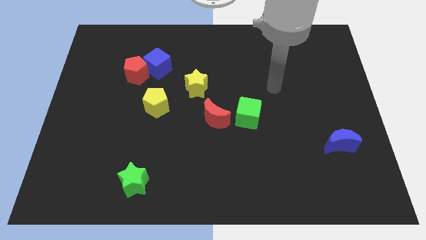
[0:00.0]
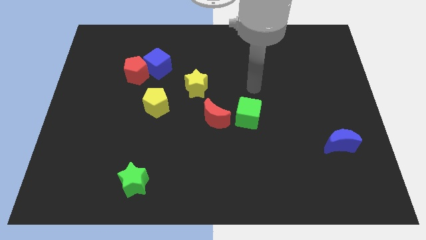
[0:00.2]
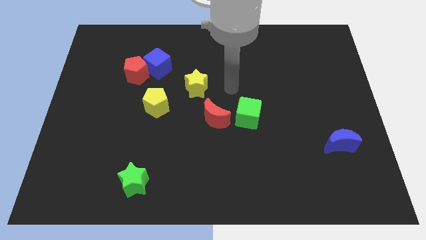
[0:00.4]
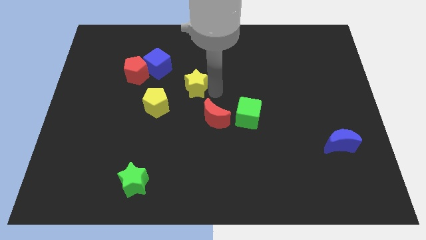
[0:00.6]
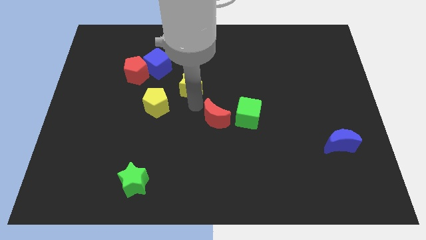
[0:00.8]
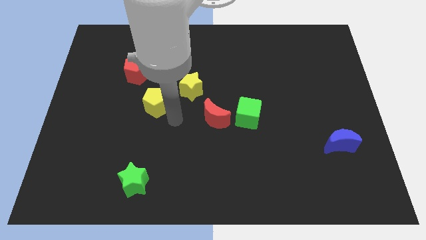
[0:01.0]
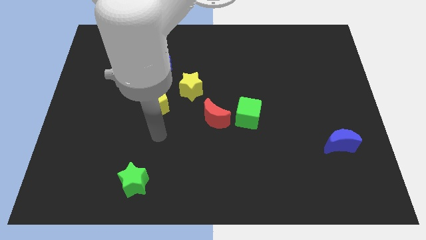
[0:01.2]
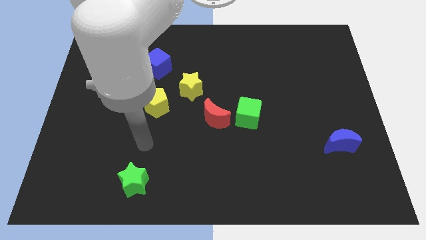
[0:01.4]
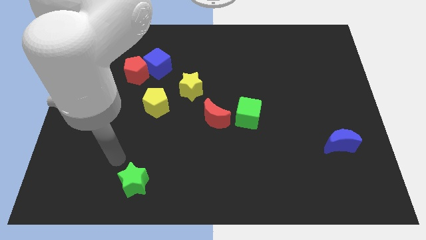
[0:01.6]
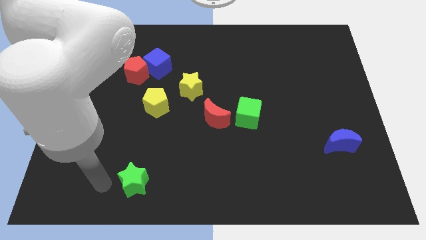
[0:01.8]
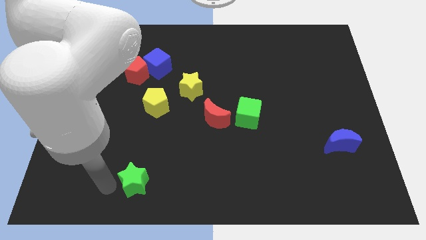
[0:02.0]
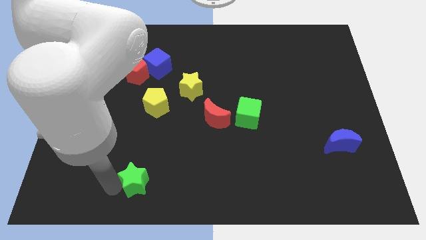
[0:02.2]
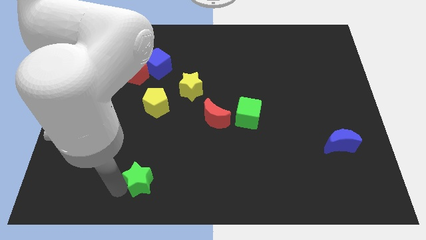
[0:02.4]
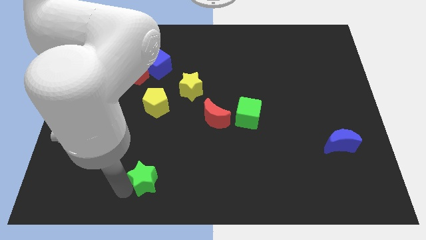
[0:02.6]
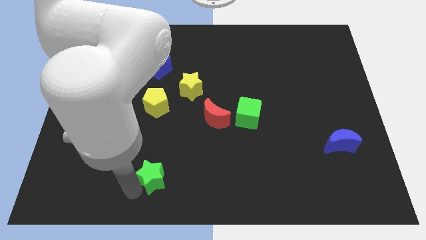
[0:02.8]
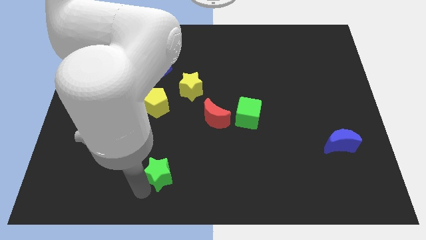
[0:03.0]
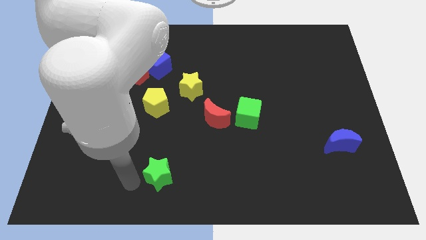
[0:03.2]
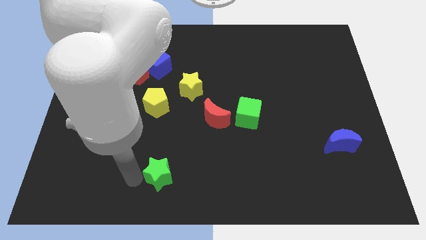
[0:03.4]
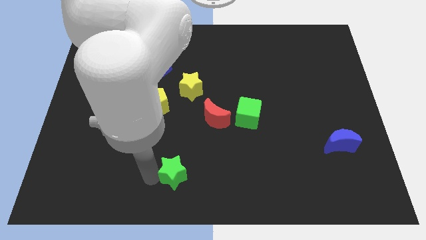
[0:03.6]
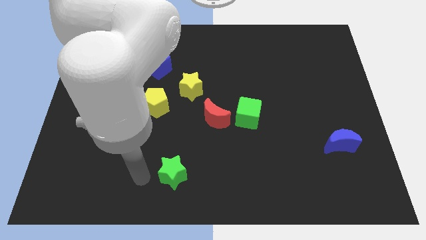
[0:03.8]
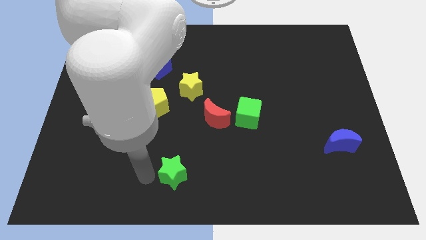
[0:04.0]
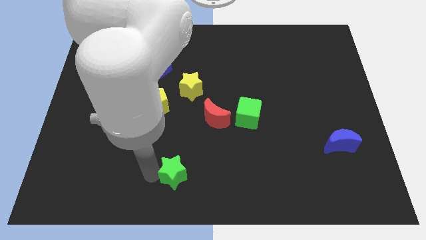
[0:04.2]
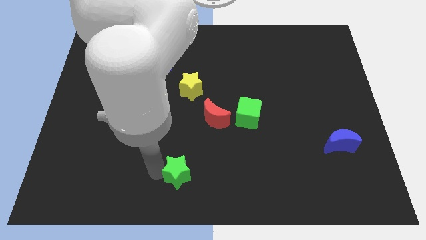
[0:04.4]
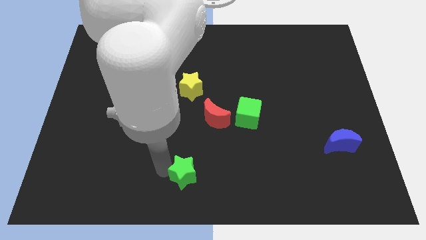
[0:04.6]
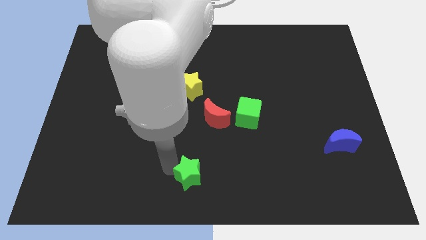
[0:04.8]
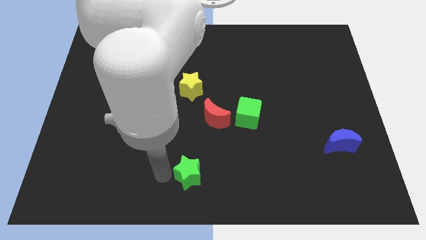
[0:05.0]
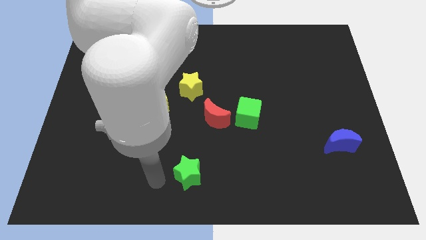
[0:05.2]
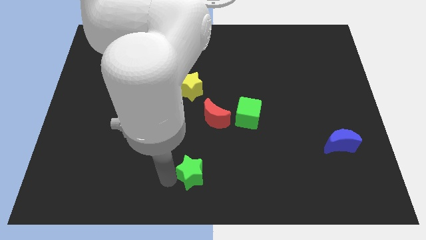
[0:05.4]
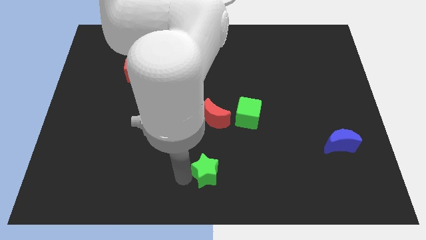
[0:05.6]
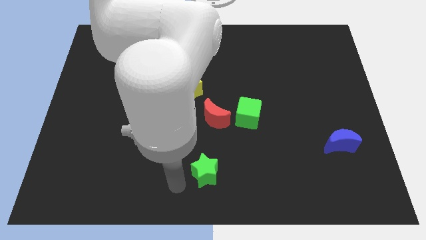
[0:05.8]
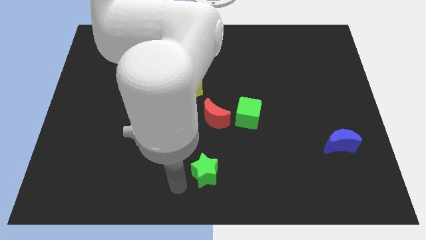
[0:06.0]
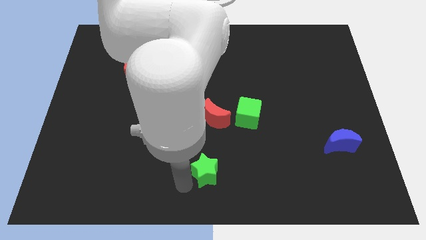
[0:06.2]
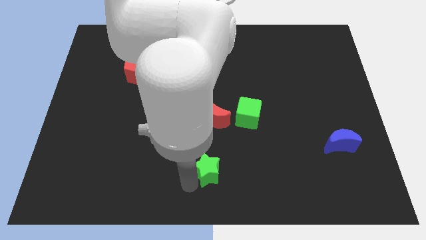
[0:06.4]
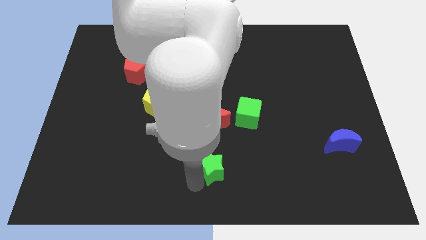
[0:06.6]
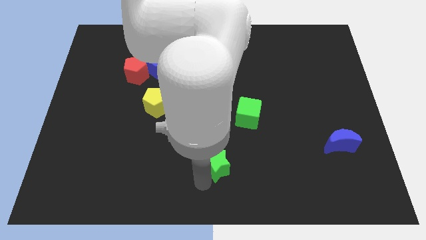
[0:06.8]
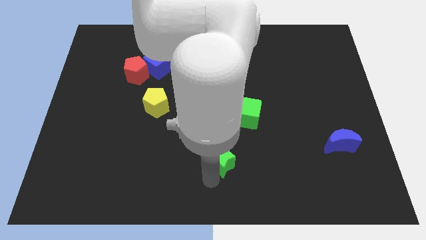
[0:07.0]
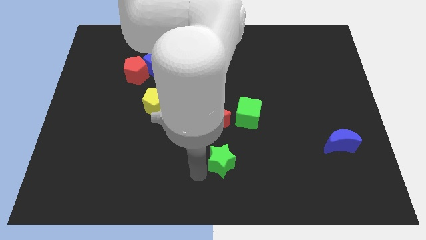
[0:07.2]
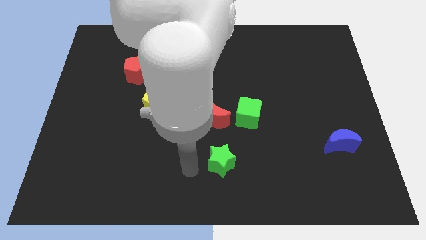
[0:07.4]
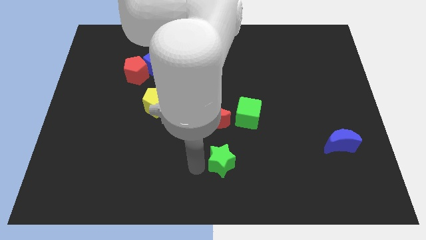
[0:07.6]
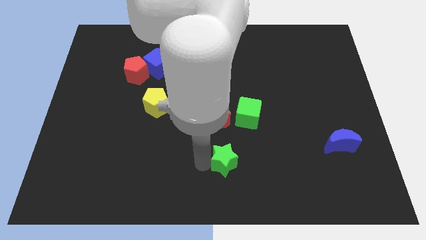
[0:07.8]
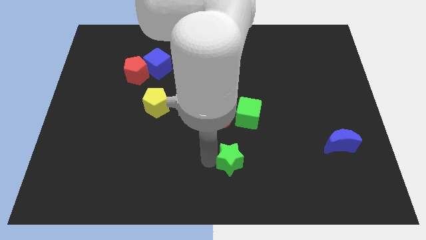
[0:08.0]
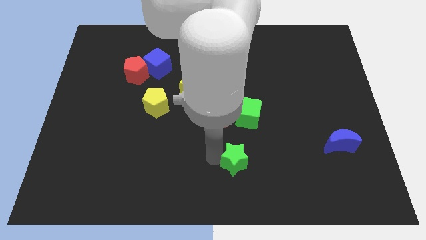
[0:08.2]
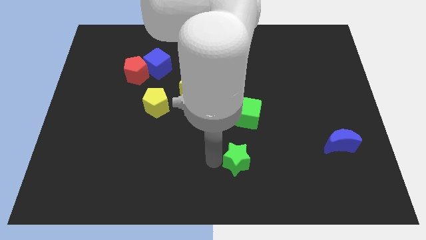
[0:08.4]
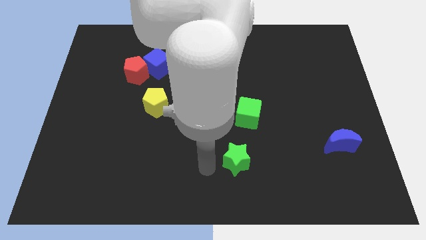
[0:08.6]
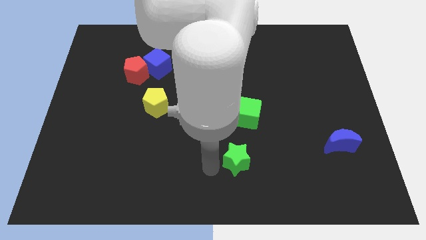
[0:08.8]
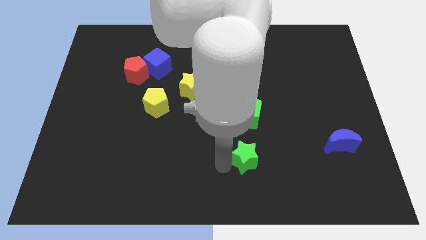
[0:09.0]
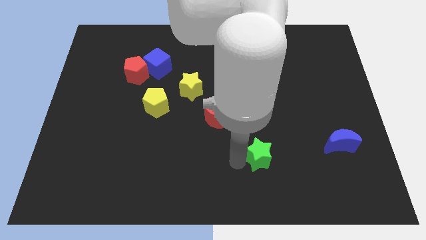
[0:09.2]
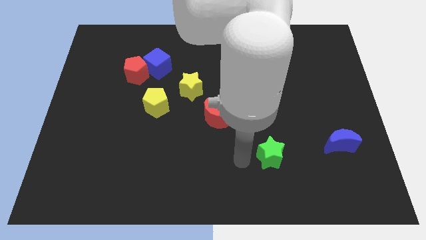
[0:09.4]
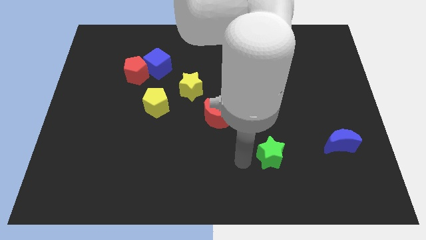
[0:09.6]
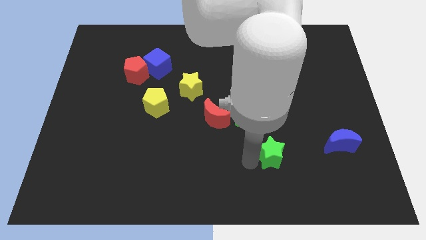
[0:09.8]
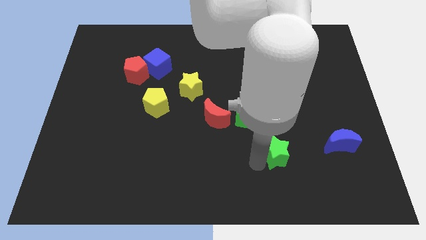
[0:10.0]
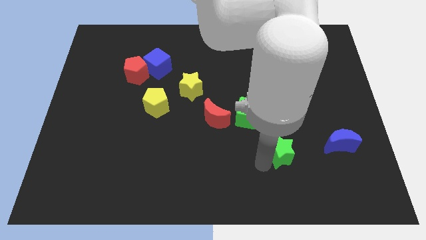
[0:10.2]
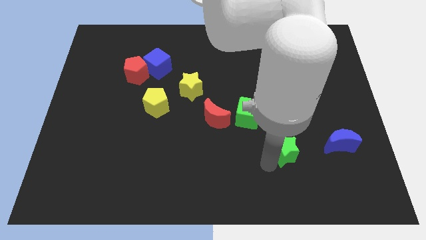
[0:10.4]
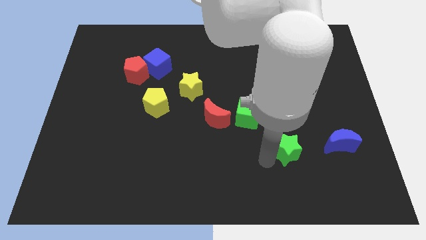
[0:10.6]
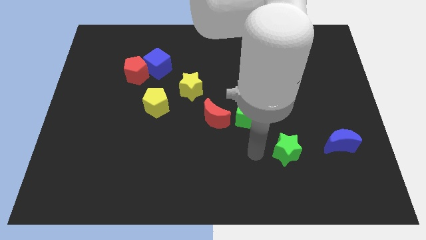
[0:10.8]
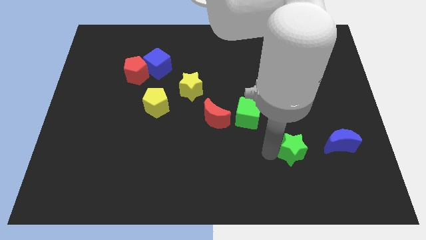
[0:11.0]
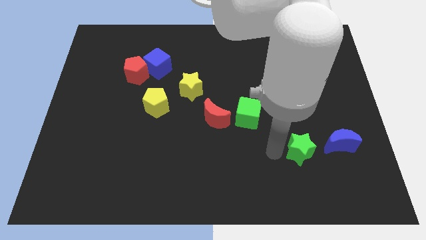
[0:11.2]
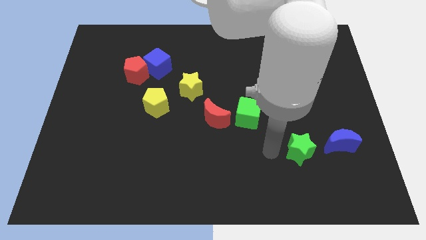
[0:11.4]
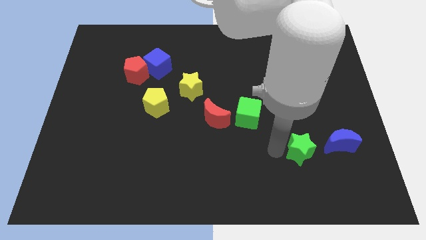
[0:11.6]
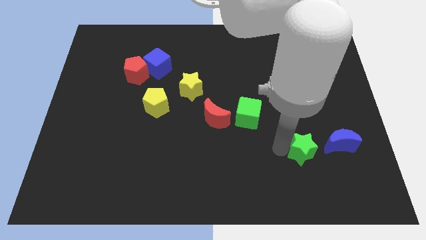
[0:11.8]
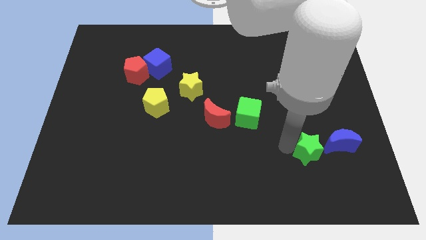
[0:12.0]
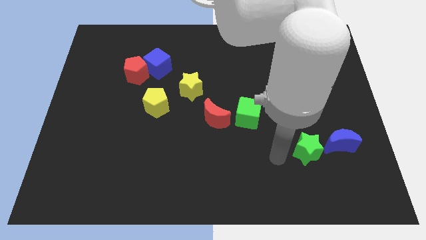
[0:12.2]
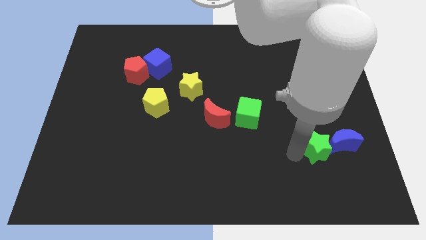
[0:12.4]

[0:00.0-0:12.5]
slide the green star to the blue moon

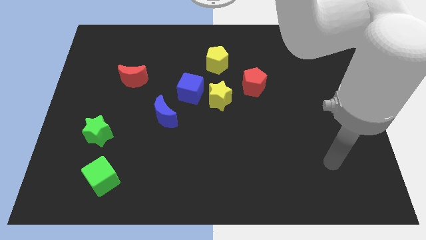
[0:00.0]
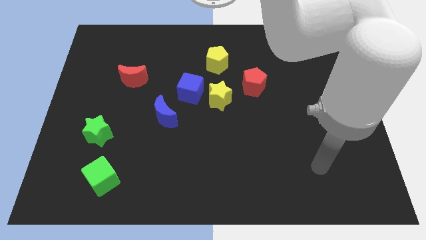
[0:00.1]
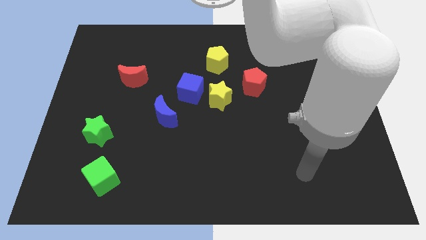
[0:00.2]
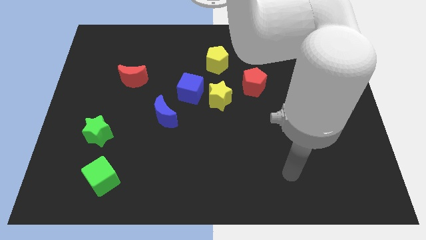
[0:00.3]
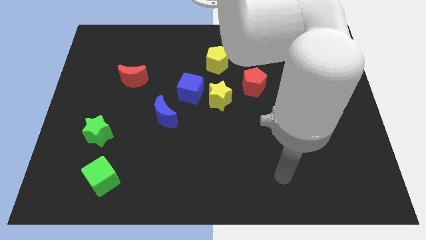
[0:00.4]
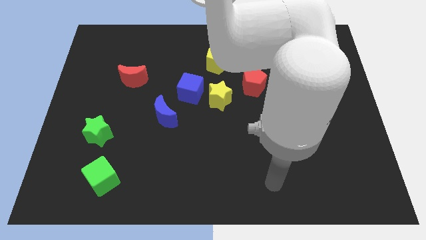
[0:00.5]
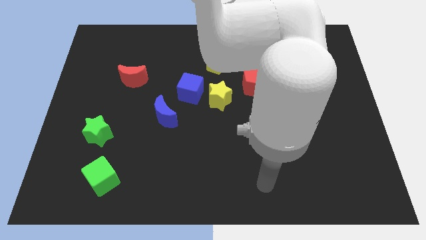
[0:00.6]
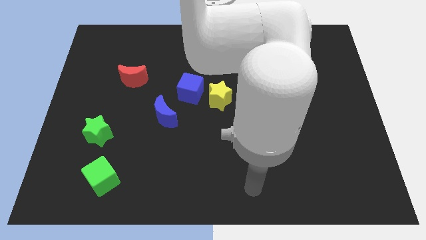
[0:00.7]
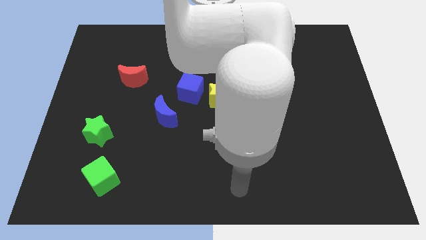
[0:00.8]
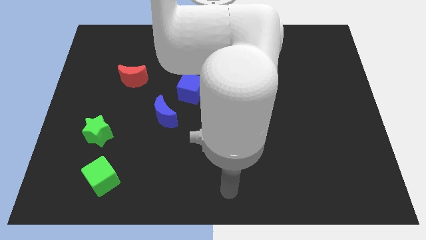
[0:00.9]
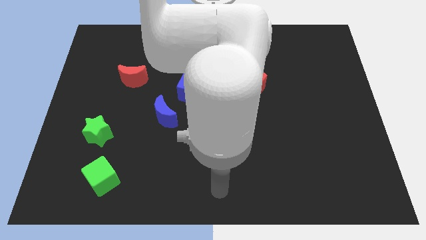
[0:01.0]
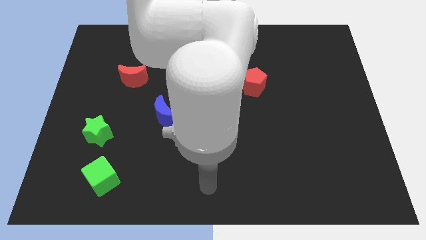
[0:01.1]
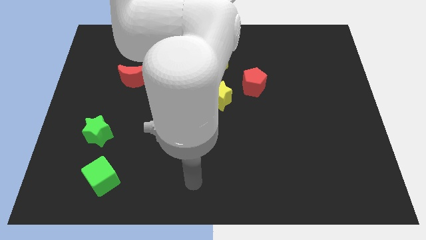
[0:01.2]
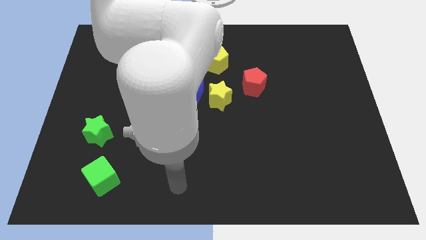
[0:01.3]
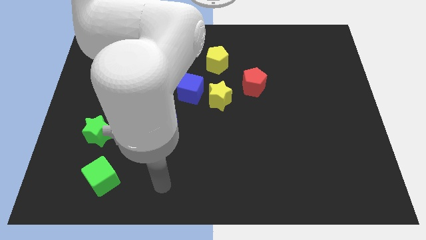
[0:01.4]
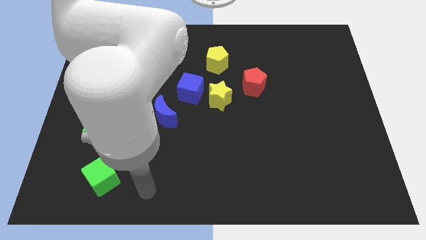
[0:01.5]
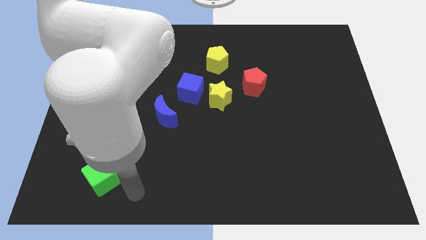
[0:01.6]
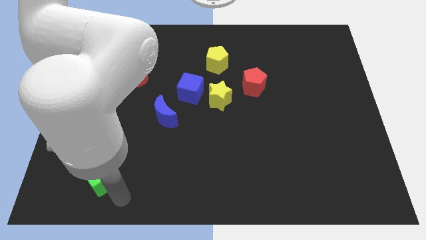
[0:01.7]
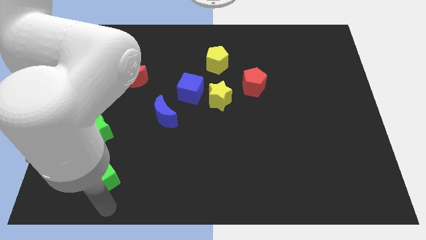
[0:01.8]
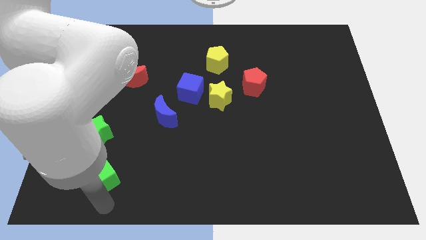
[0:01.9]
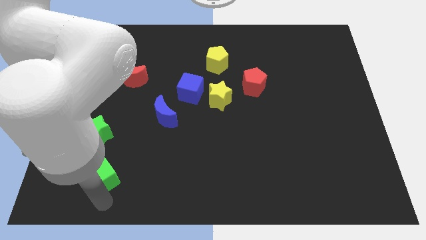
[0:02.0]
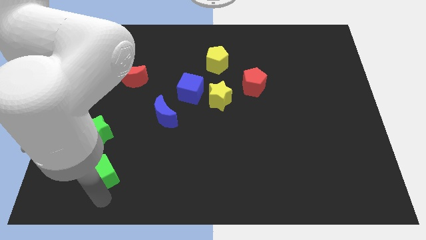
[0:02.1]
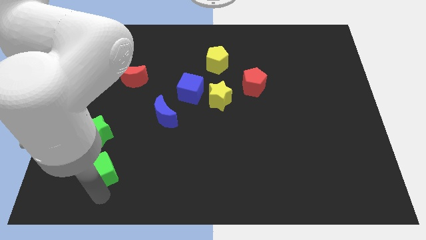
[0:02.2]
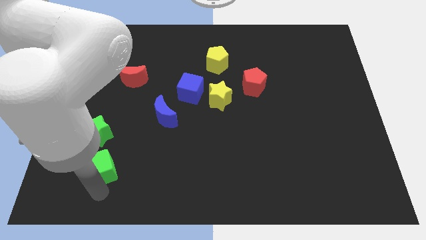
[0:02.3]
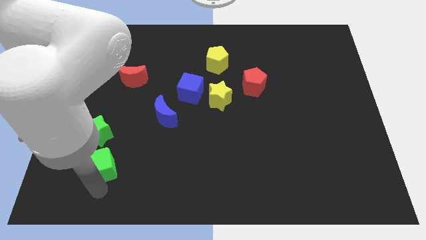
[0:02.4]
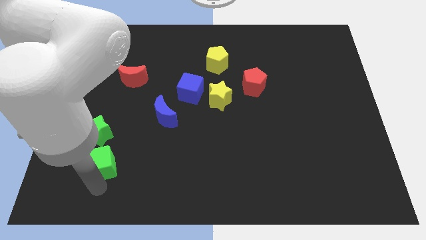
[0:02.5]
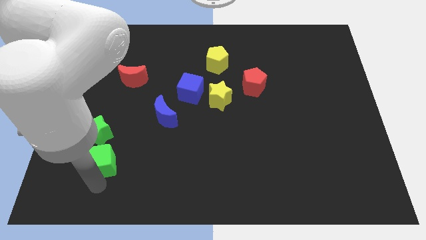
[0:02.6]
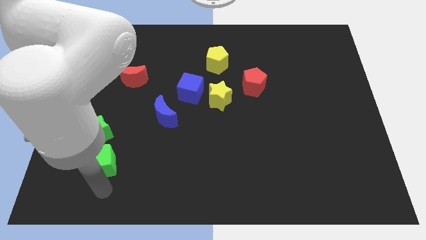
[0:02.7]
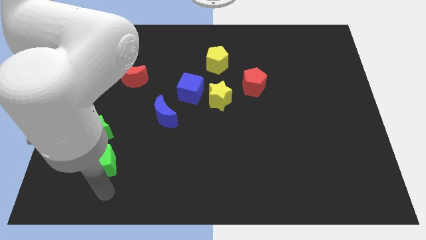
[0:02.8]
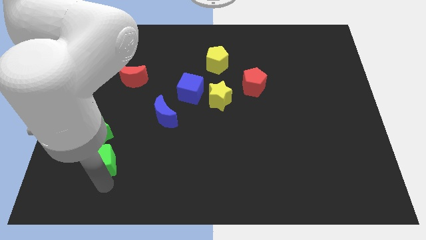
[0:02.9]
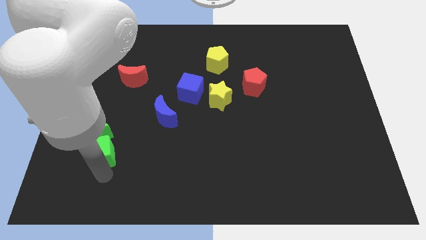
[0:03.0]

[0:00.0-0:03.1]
push the green cube close to the green star
